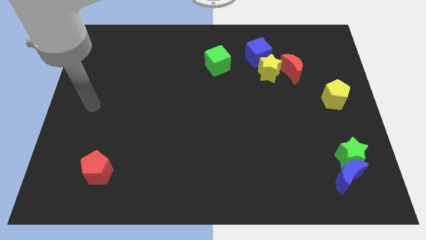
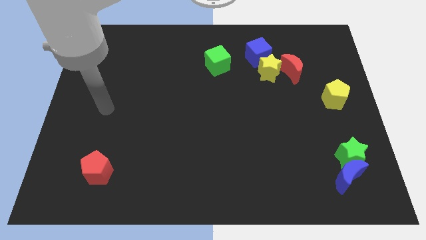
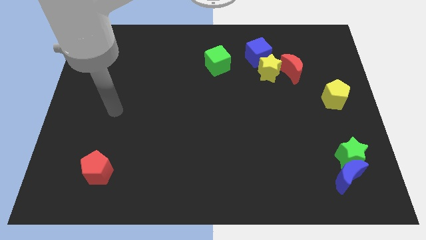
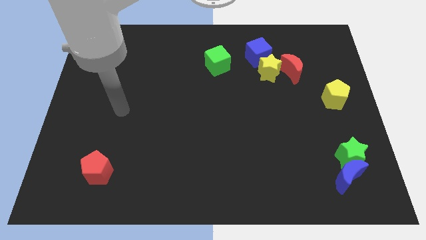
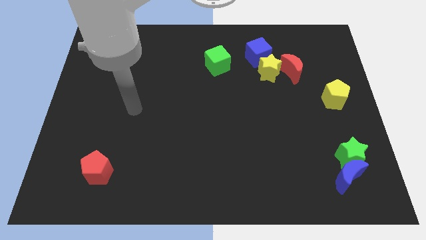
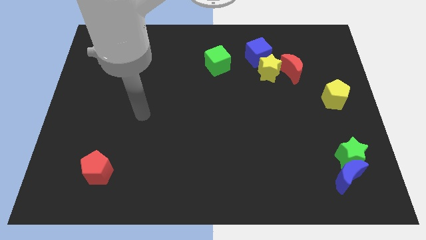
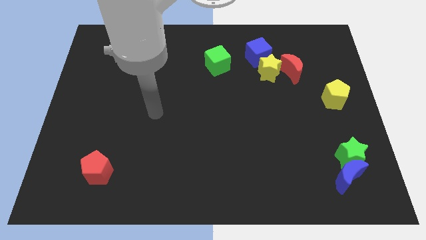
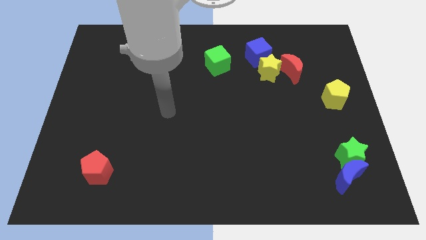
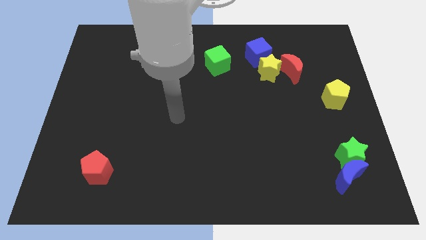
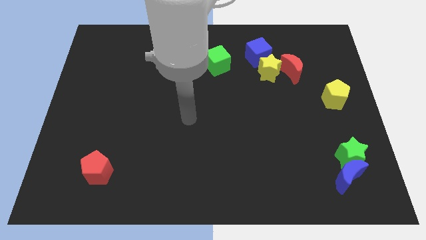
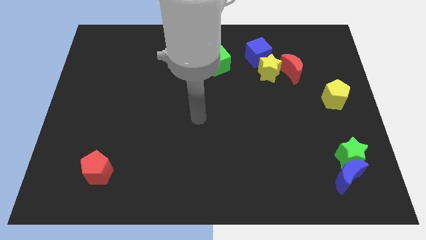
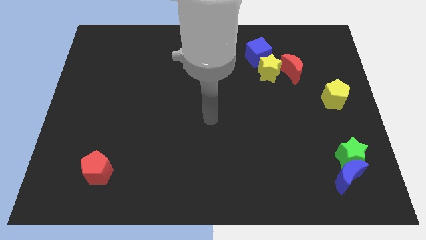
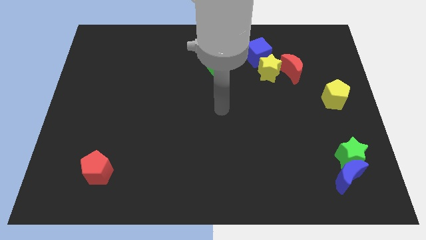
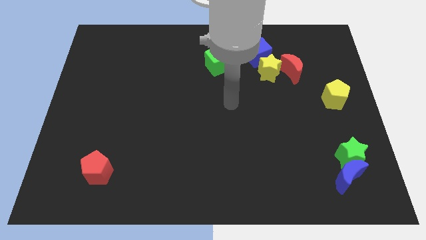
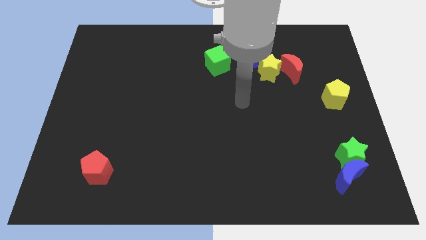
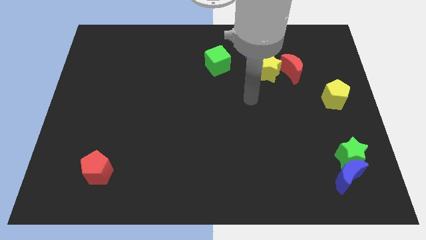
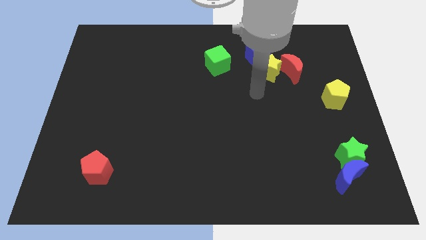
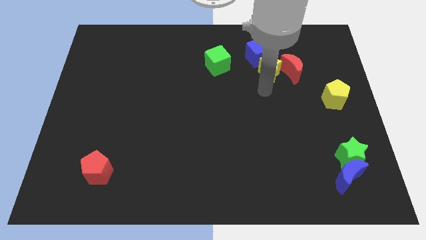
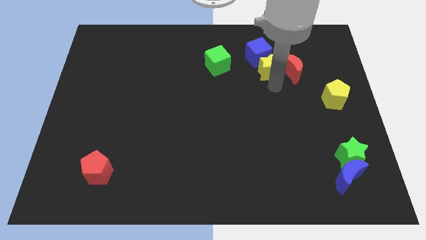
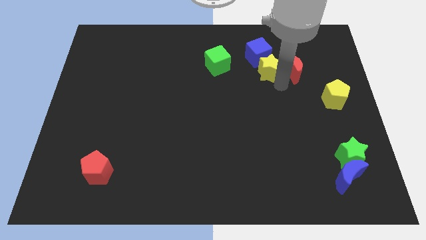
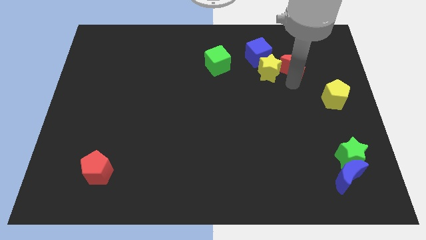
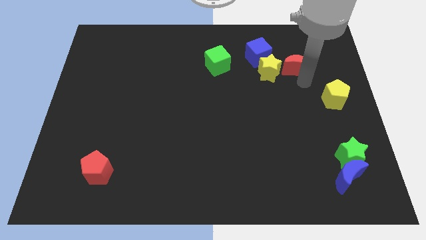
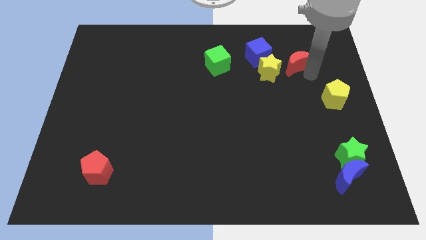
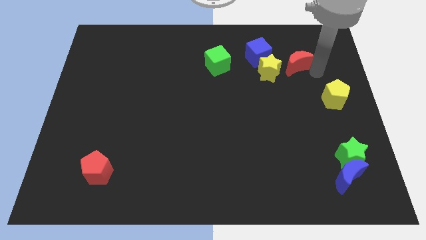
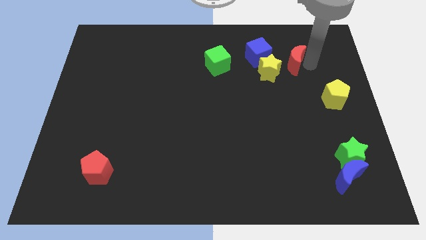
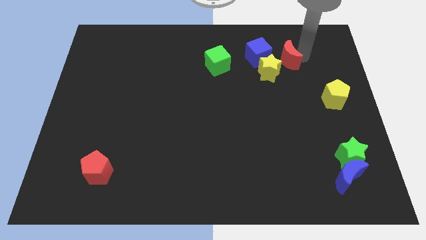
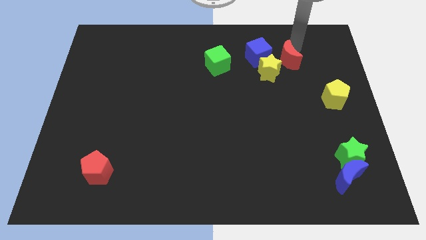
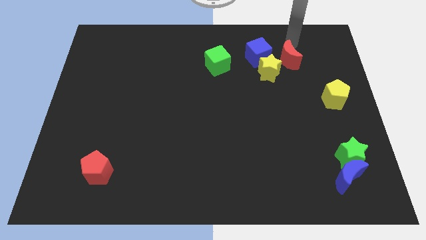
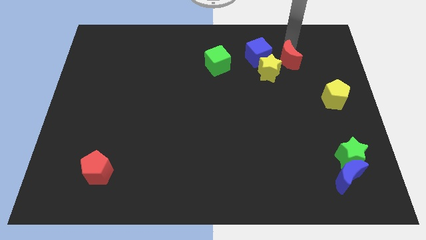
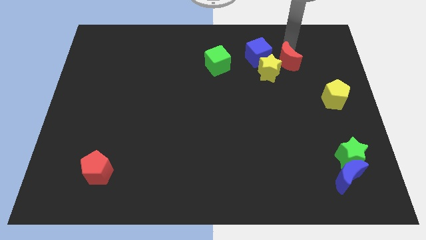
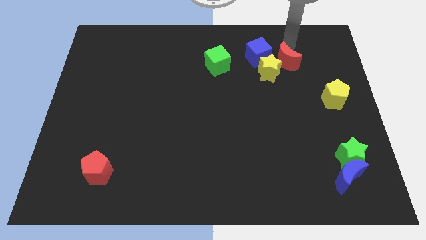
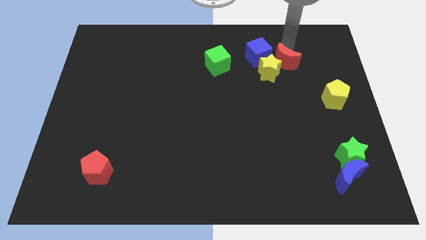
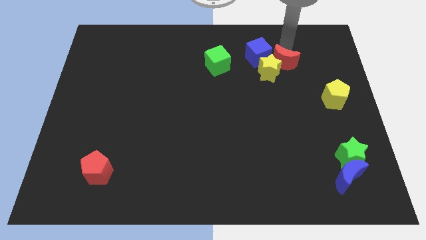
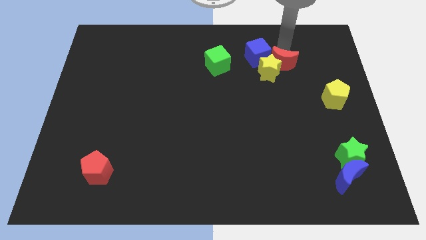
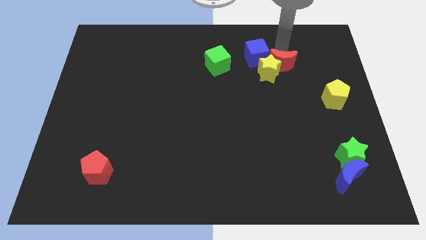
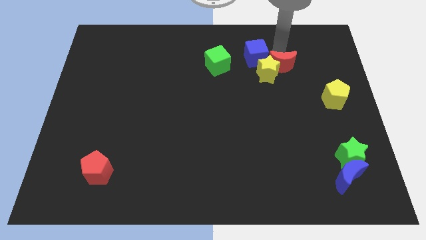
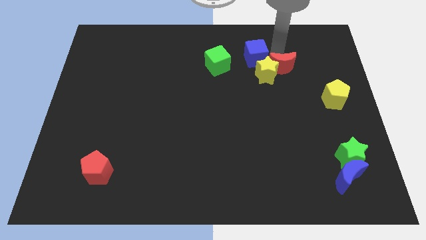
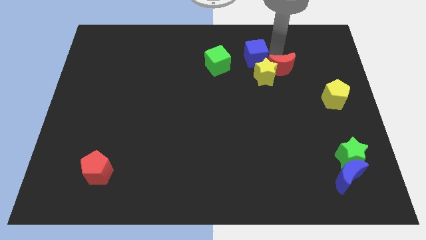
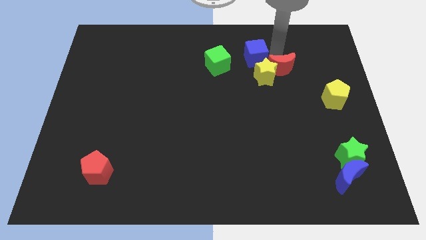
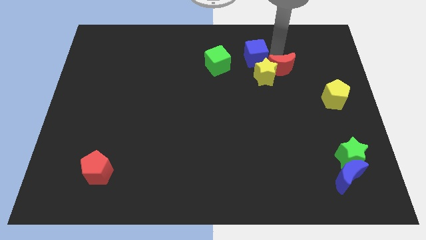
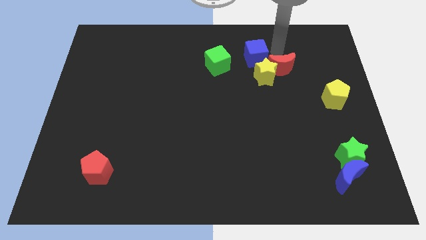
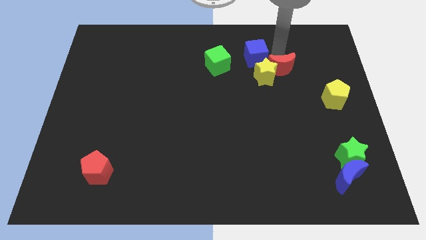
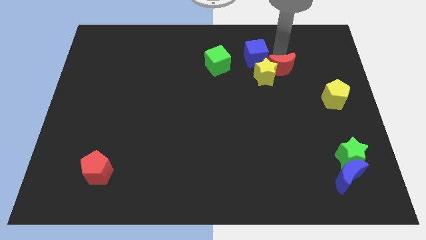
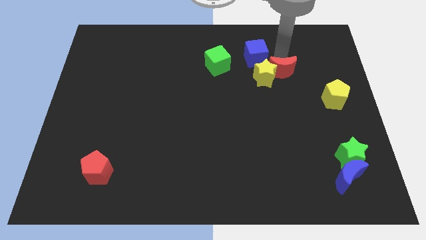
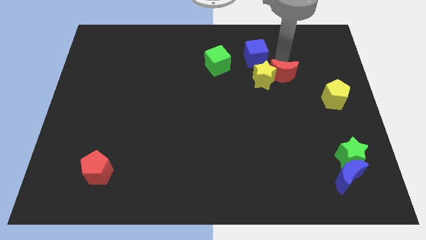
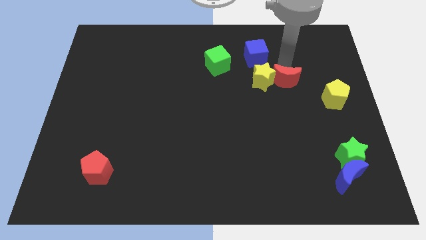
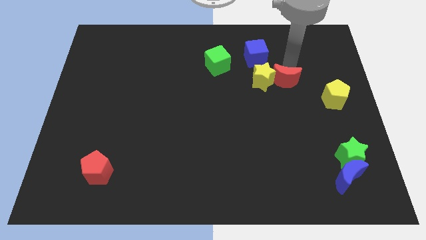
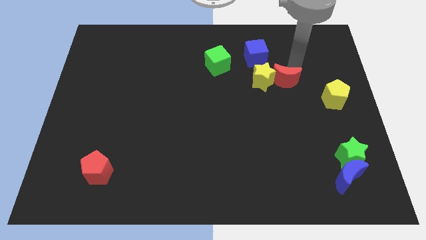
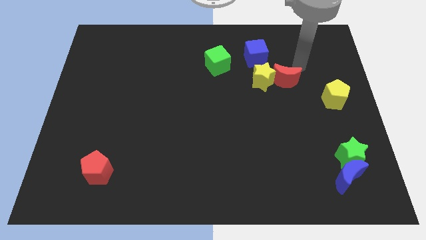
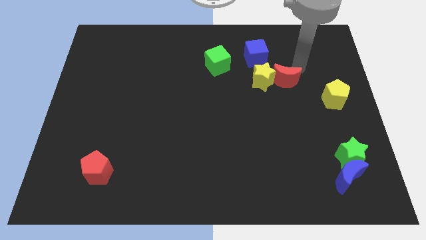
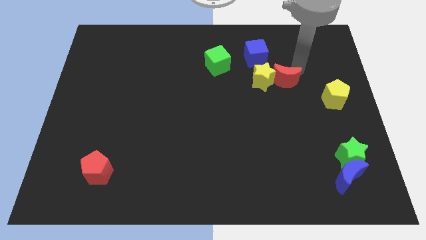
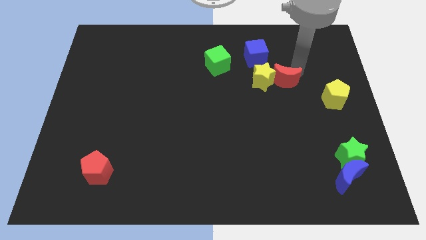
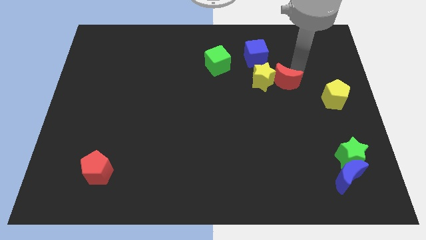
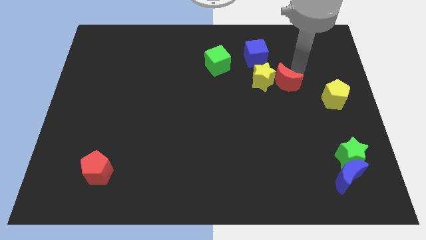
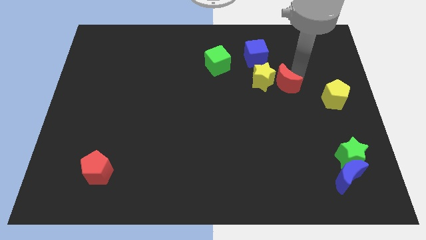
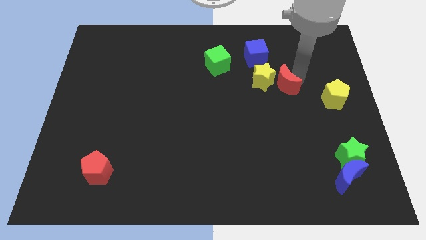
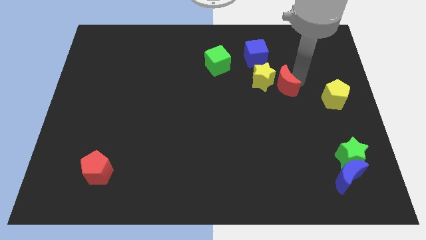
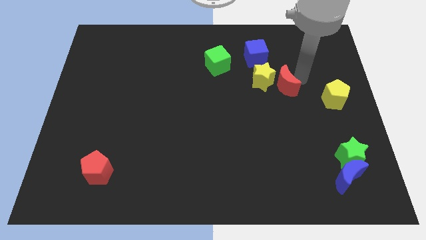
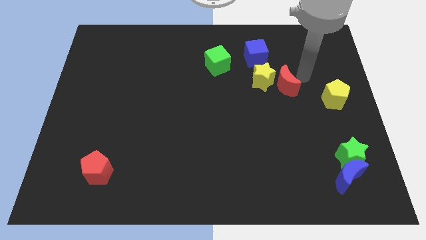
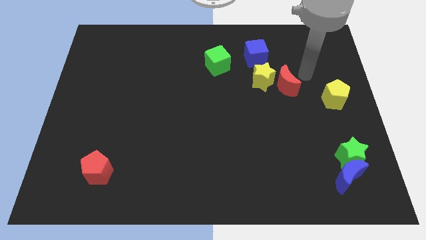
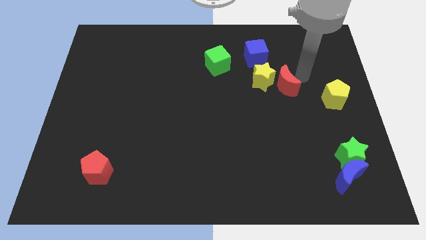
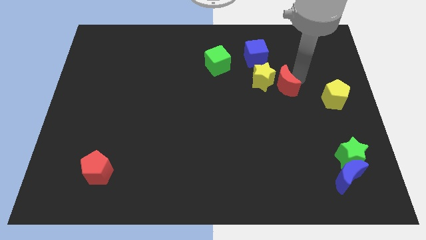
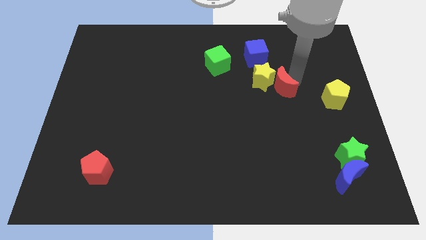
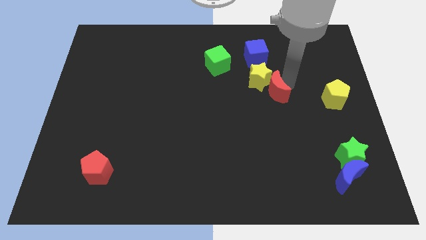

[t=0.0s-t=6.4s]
slightly slide the red moon diagonally downwards and to the left

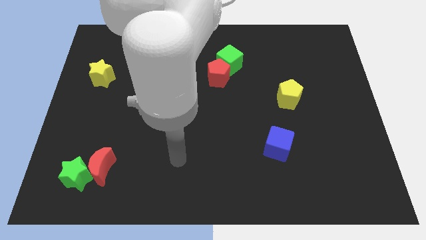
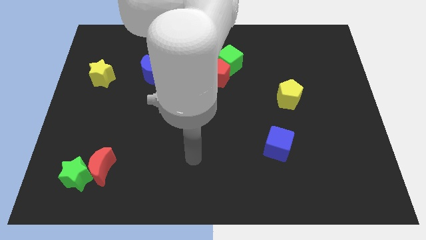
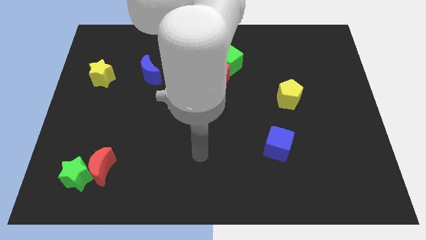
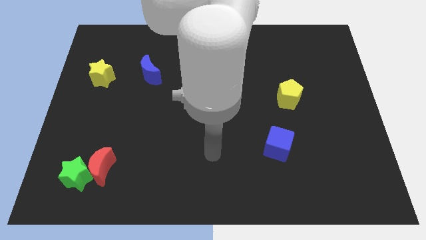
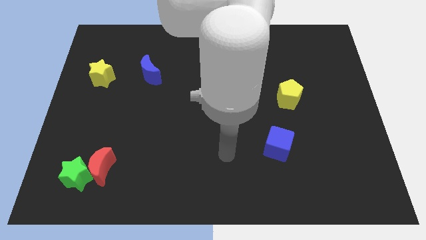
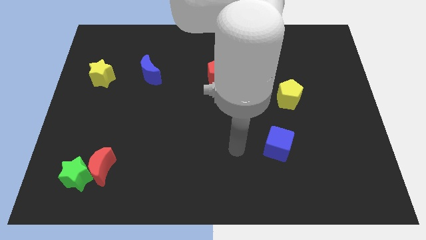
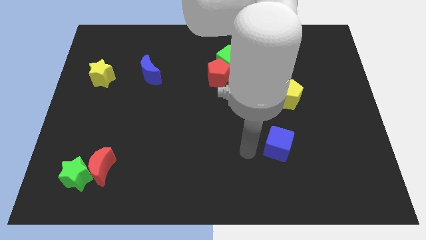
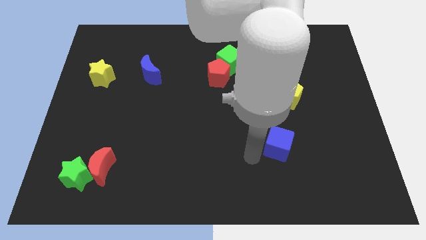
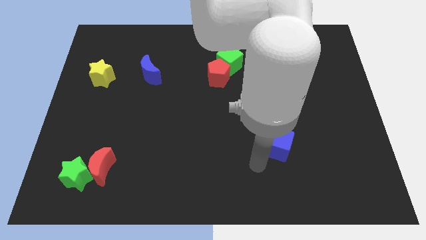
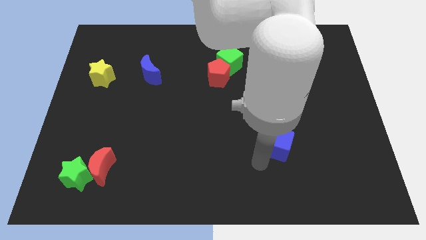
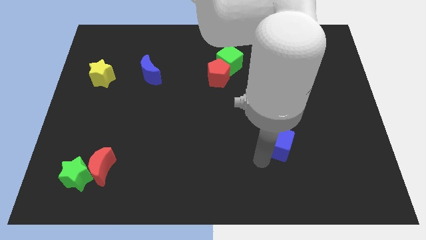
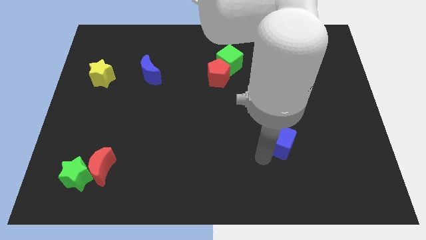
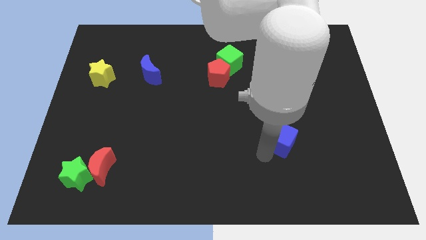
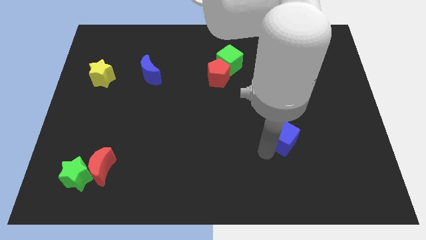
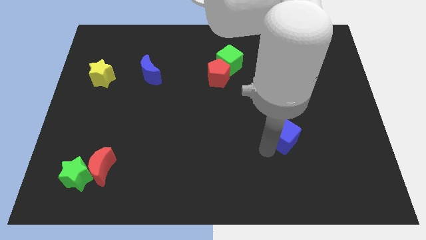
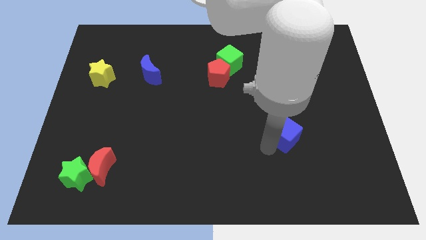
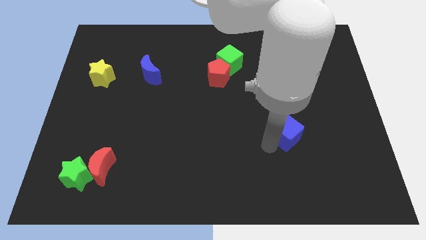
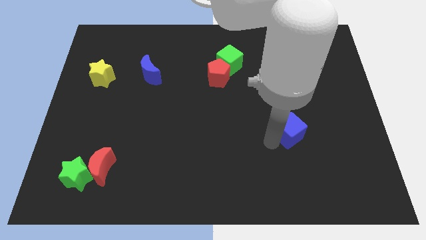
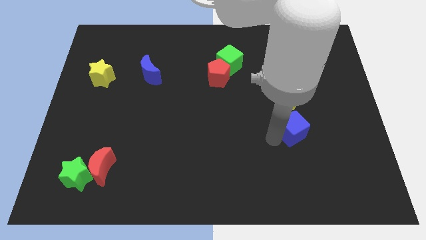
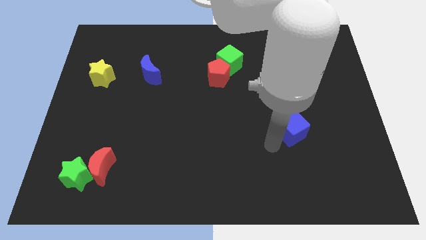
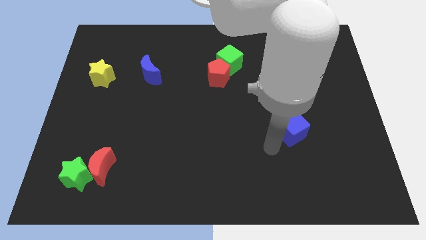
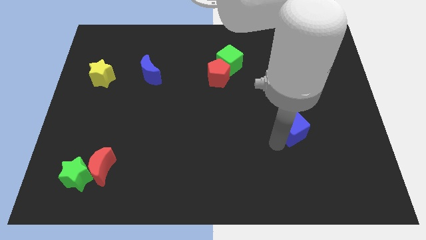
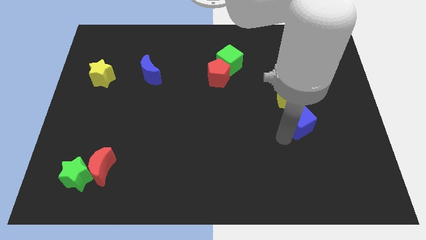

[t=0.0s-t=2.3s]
slightly push the blue cube up and to the right diagonally
